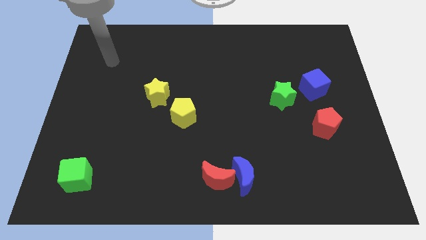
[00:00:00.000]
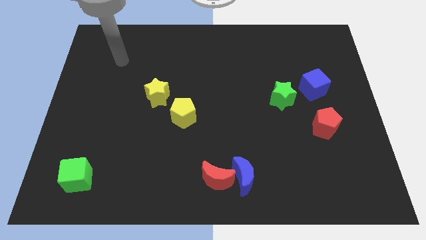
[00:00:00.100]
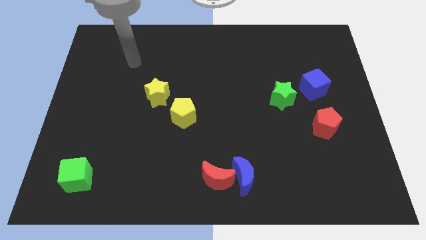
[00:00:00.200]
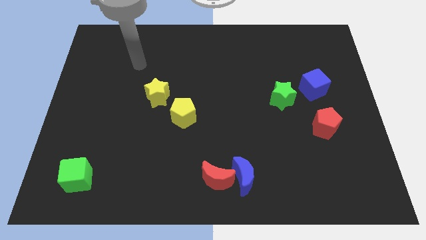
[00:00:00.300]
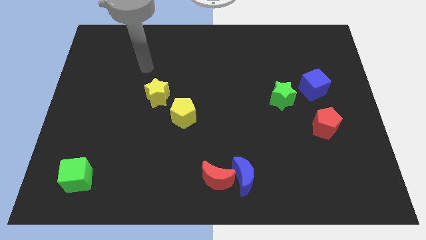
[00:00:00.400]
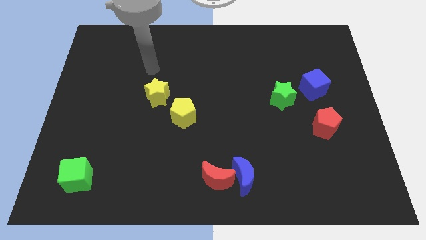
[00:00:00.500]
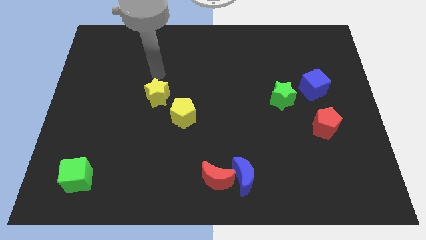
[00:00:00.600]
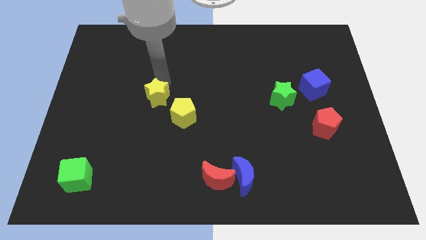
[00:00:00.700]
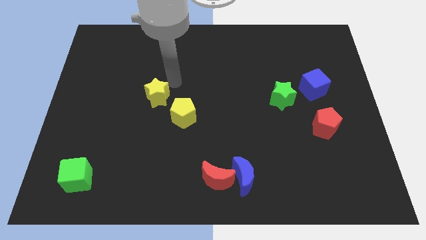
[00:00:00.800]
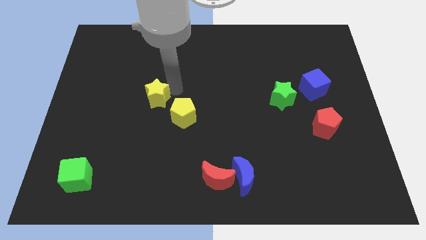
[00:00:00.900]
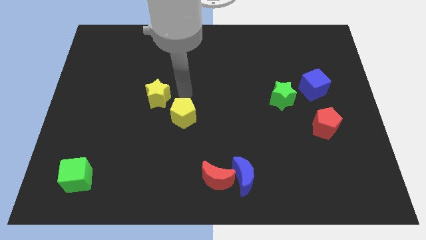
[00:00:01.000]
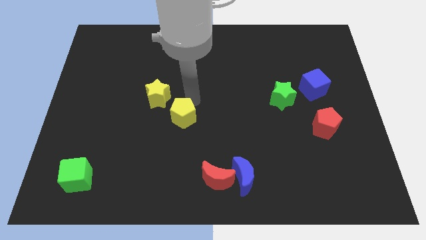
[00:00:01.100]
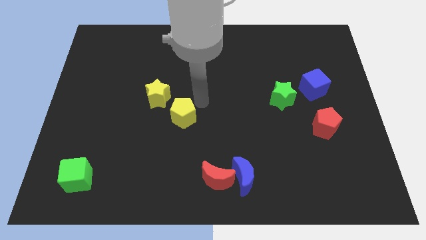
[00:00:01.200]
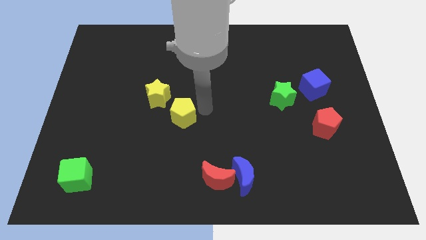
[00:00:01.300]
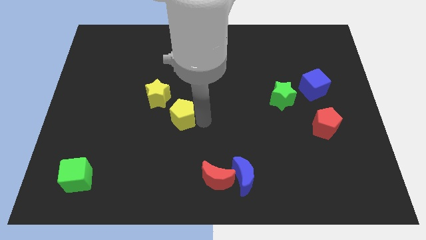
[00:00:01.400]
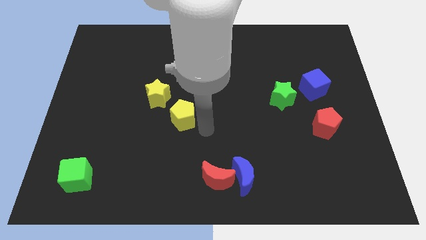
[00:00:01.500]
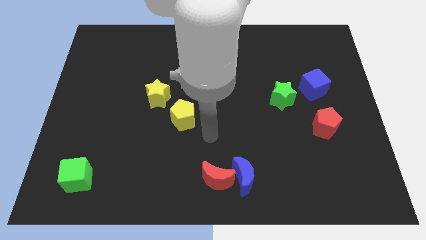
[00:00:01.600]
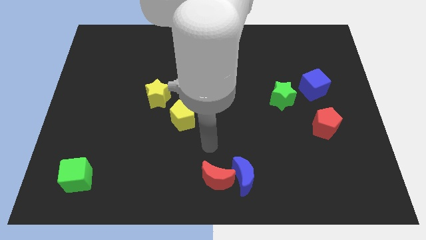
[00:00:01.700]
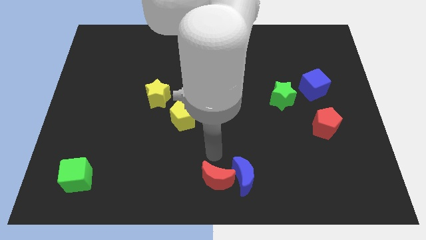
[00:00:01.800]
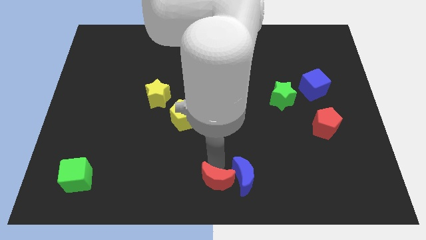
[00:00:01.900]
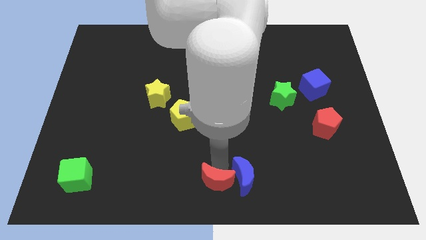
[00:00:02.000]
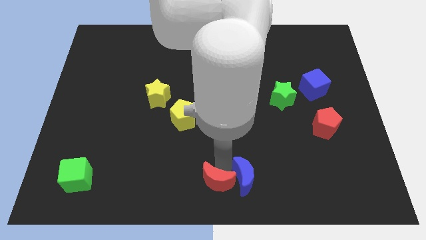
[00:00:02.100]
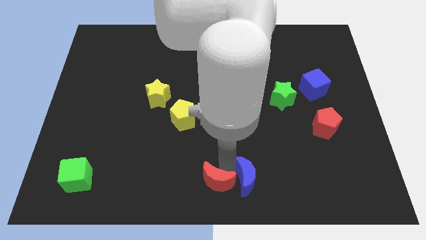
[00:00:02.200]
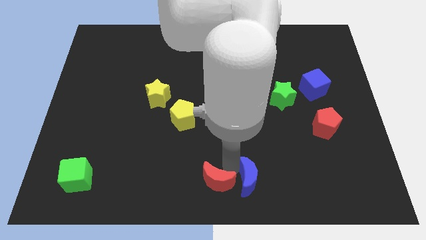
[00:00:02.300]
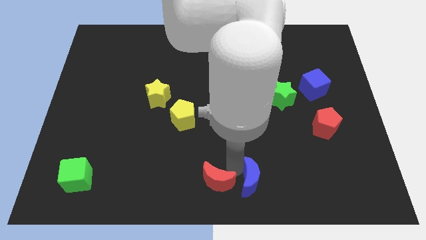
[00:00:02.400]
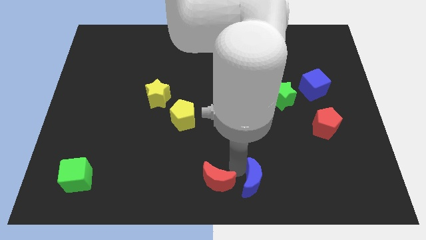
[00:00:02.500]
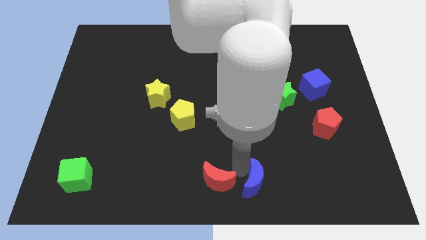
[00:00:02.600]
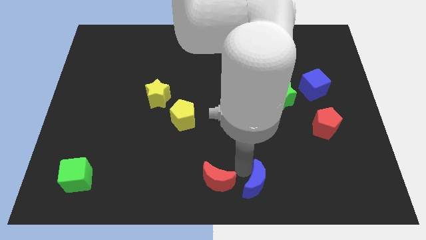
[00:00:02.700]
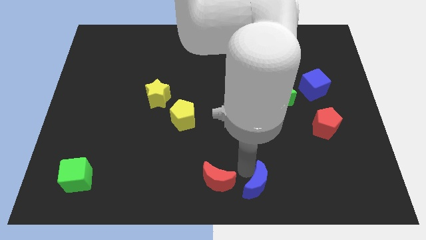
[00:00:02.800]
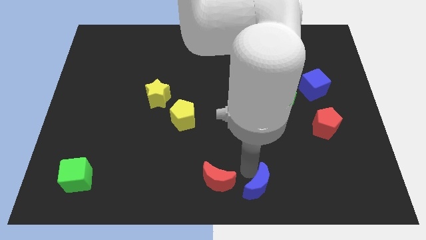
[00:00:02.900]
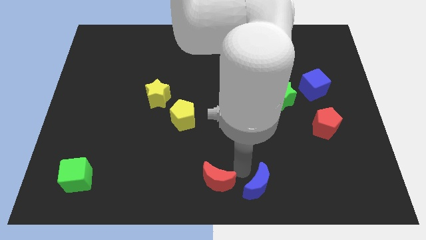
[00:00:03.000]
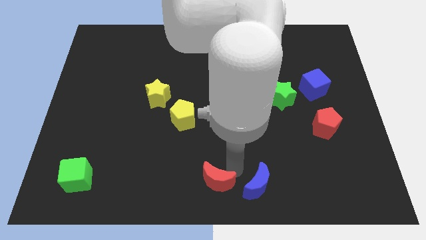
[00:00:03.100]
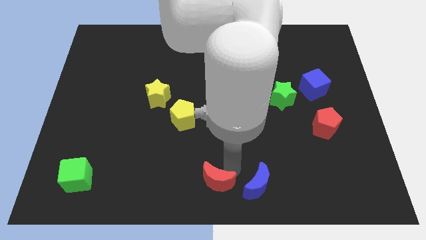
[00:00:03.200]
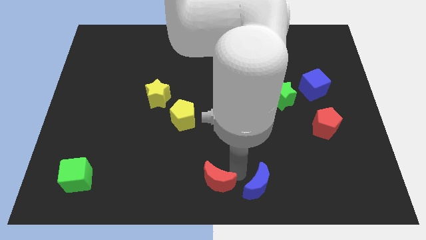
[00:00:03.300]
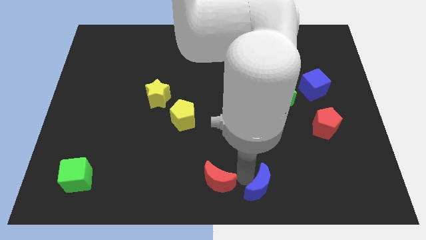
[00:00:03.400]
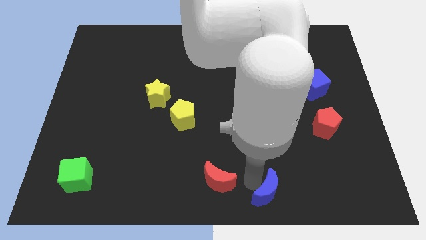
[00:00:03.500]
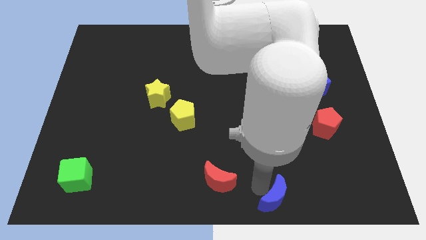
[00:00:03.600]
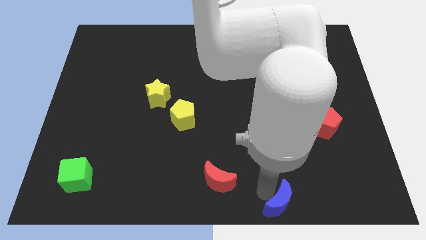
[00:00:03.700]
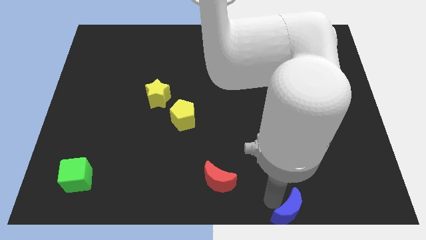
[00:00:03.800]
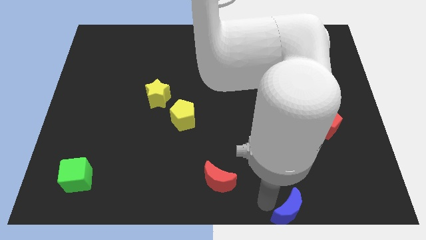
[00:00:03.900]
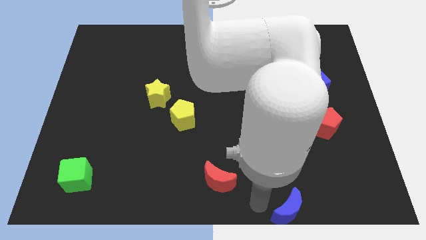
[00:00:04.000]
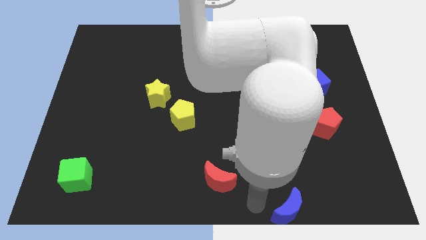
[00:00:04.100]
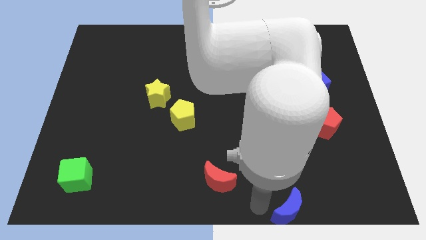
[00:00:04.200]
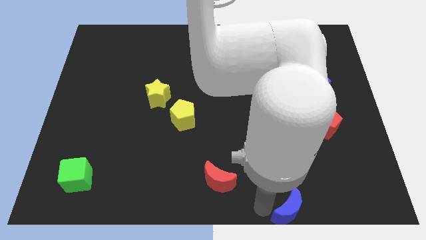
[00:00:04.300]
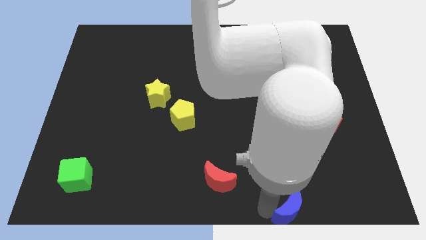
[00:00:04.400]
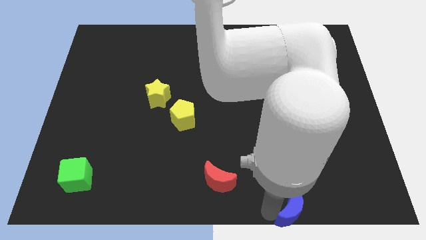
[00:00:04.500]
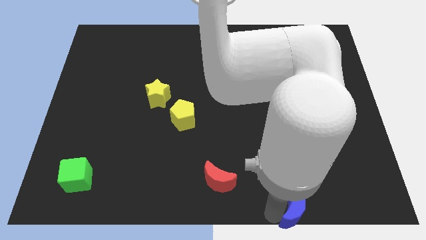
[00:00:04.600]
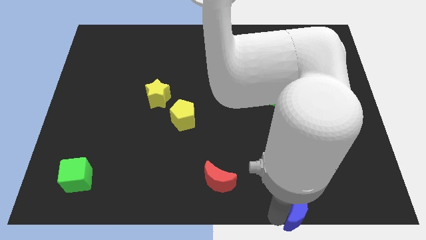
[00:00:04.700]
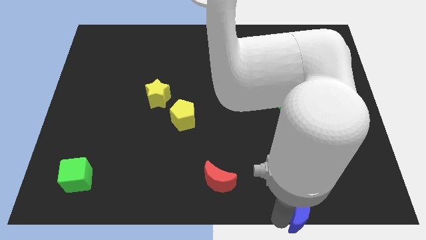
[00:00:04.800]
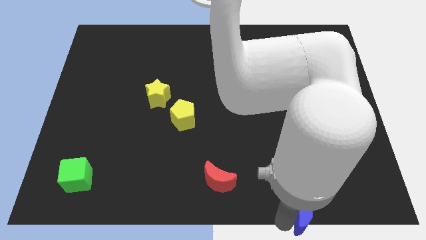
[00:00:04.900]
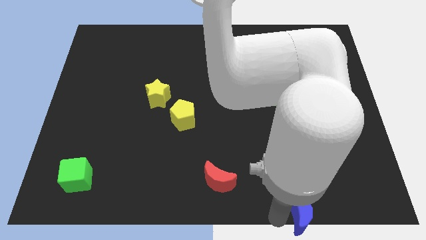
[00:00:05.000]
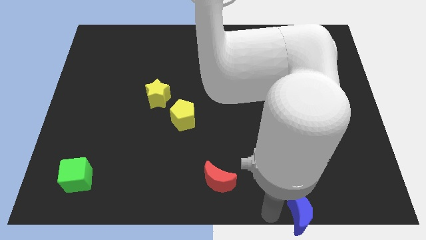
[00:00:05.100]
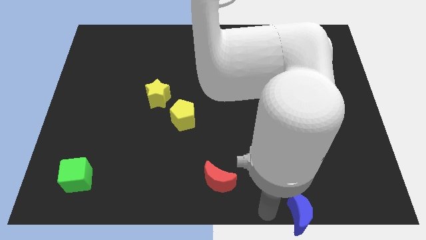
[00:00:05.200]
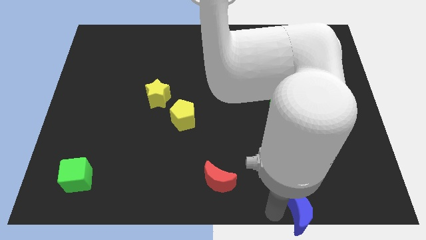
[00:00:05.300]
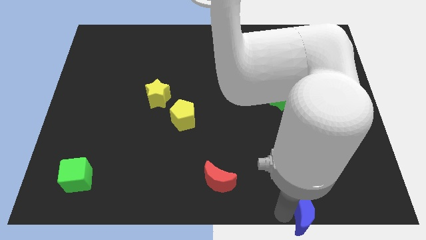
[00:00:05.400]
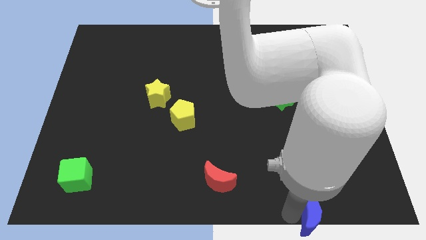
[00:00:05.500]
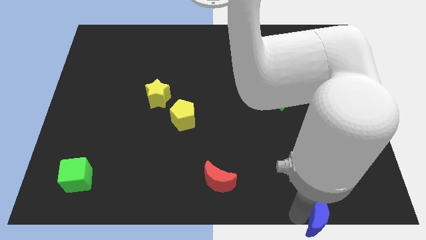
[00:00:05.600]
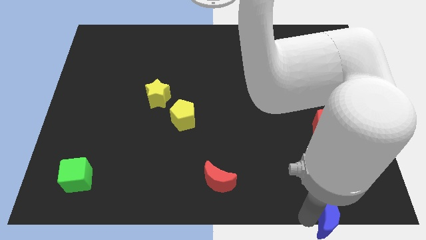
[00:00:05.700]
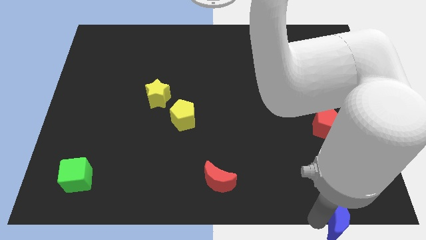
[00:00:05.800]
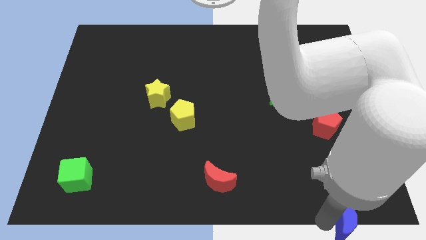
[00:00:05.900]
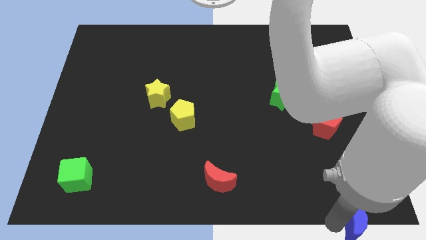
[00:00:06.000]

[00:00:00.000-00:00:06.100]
put the blue moon to the lower right corner

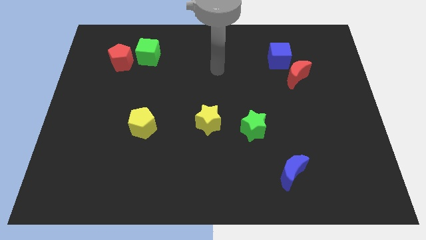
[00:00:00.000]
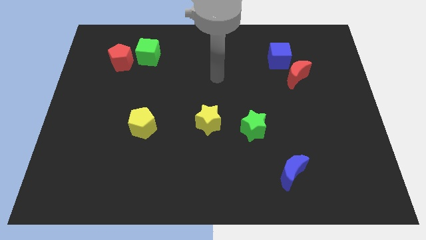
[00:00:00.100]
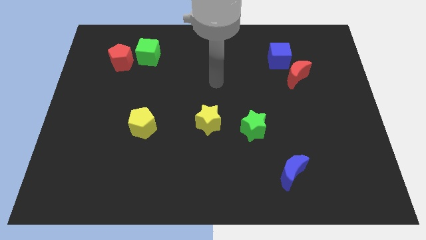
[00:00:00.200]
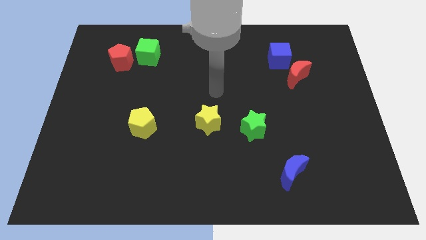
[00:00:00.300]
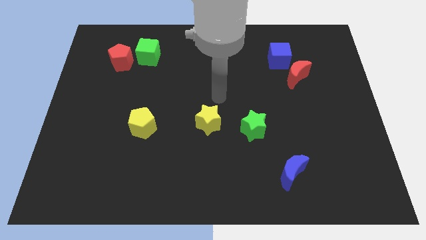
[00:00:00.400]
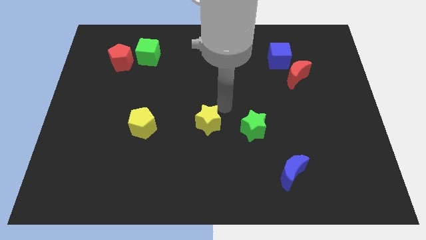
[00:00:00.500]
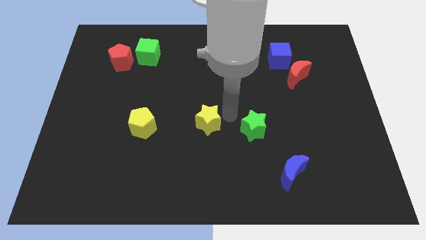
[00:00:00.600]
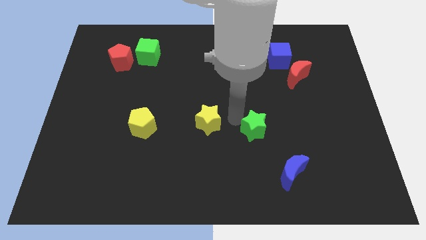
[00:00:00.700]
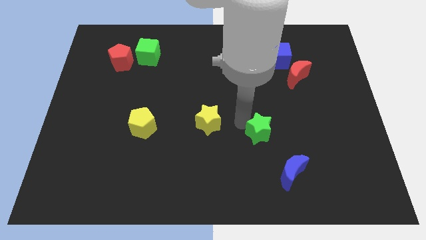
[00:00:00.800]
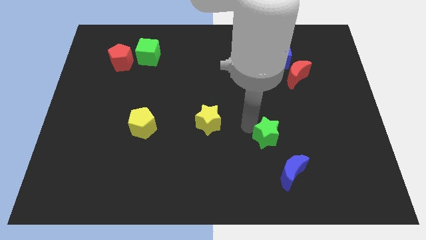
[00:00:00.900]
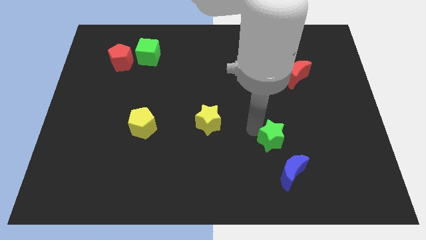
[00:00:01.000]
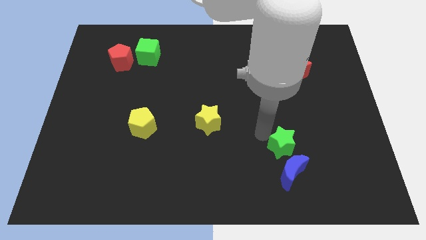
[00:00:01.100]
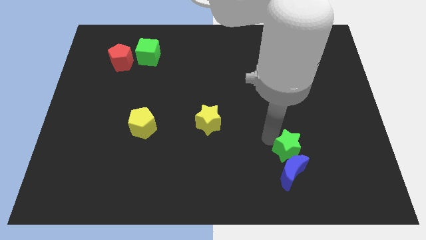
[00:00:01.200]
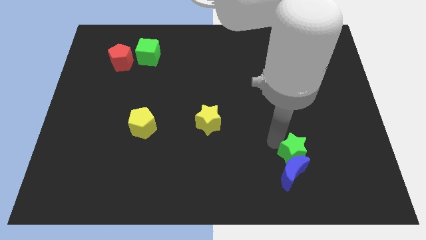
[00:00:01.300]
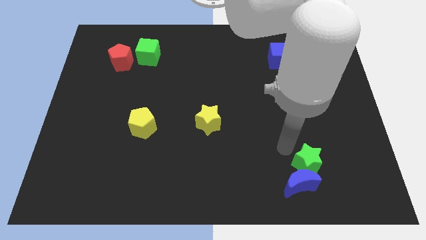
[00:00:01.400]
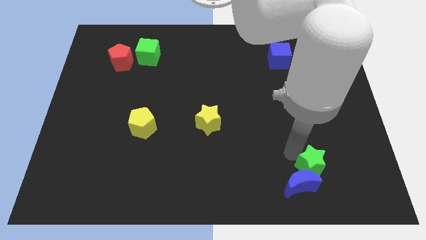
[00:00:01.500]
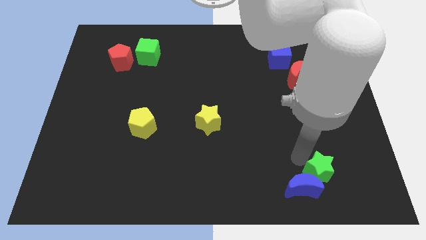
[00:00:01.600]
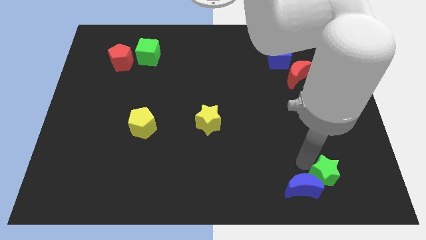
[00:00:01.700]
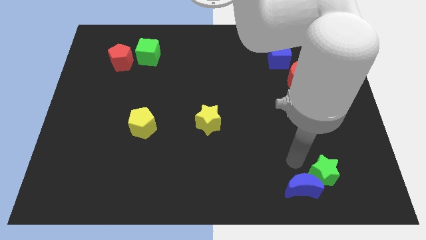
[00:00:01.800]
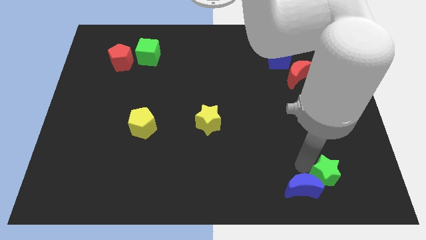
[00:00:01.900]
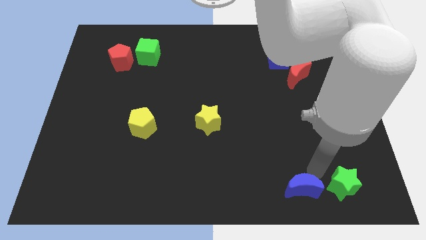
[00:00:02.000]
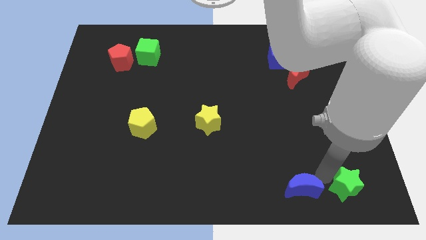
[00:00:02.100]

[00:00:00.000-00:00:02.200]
move the green star to the lower right corner
